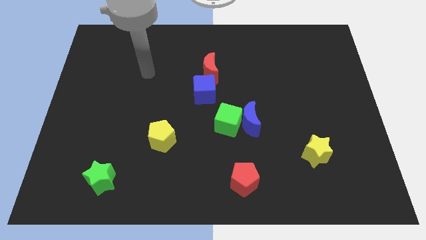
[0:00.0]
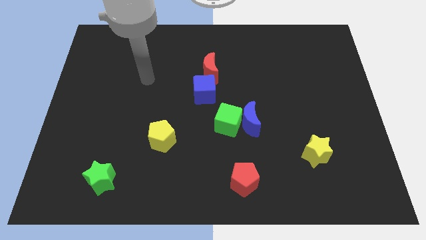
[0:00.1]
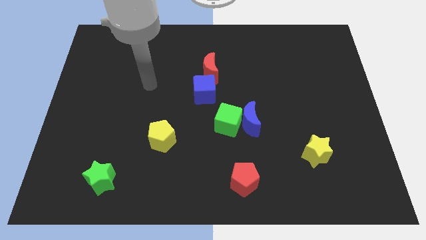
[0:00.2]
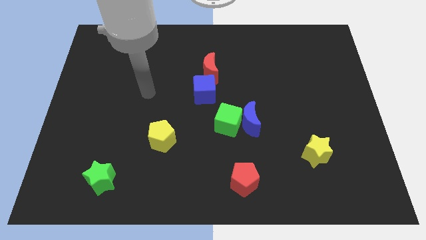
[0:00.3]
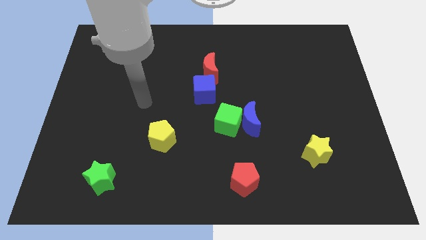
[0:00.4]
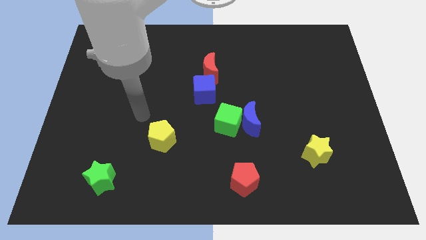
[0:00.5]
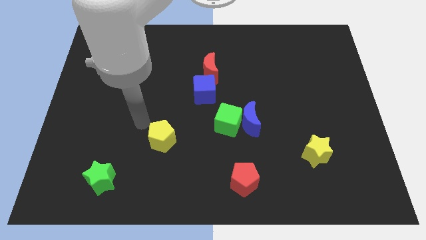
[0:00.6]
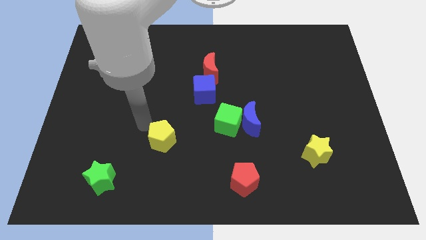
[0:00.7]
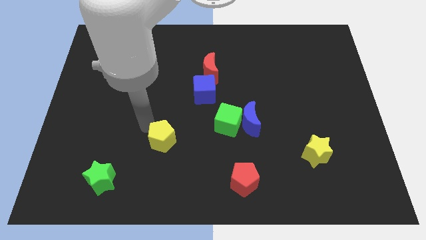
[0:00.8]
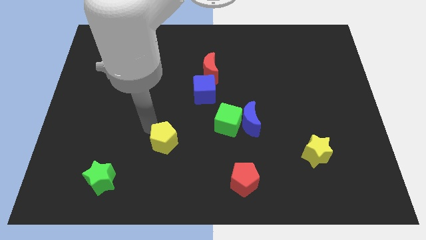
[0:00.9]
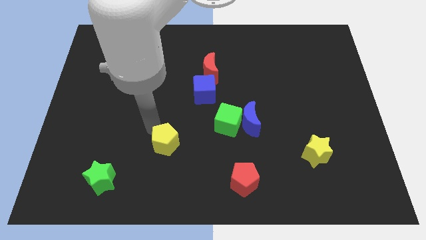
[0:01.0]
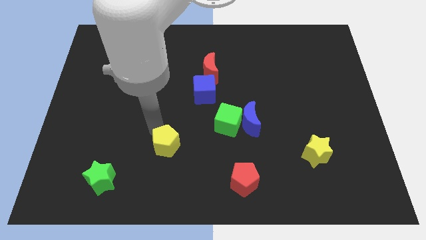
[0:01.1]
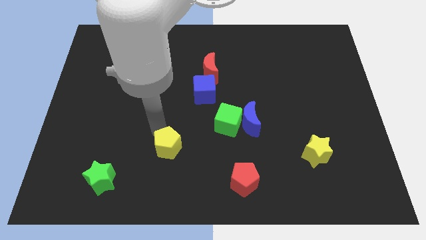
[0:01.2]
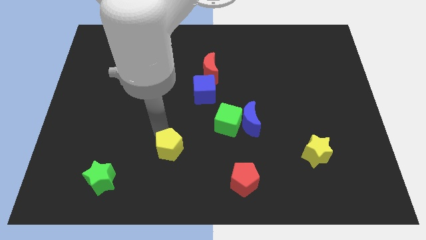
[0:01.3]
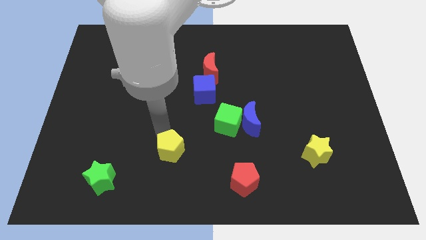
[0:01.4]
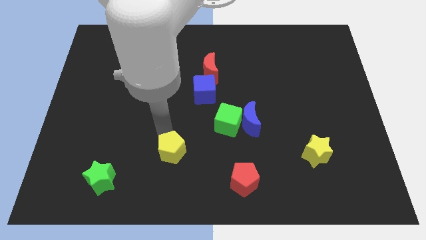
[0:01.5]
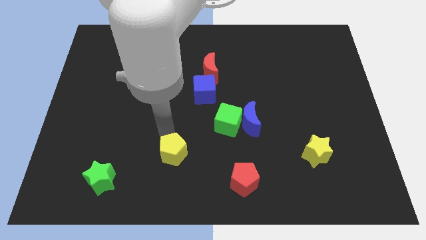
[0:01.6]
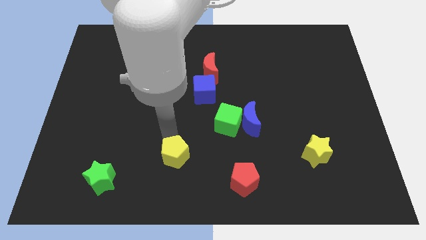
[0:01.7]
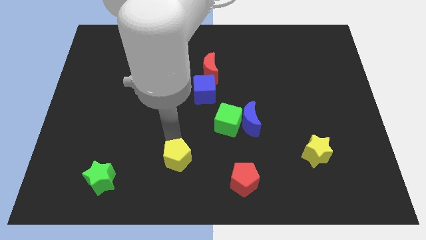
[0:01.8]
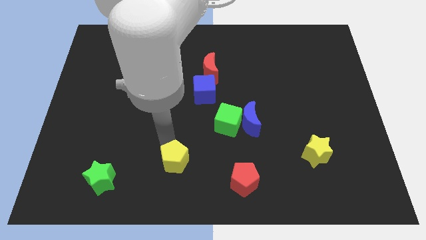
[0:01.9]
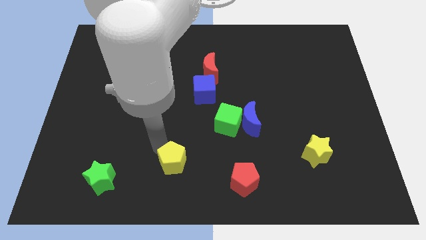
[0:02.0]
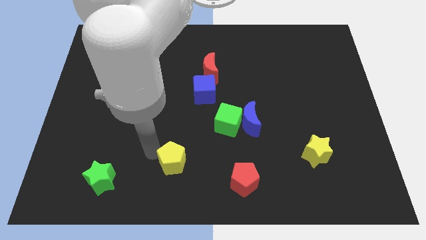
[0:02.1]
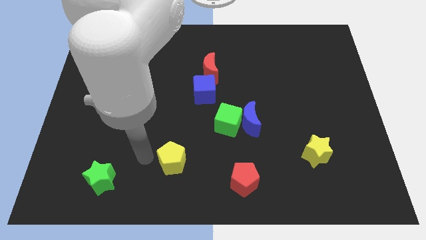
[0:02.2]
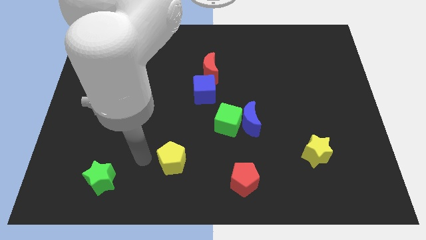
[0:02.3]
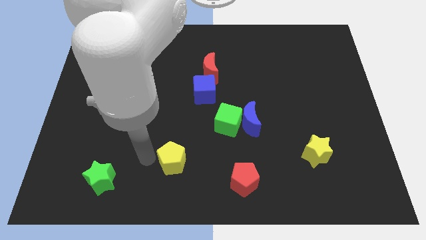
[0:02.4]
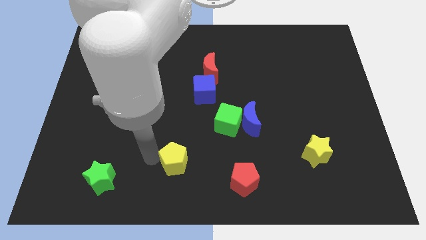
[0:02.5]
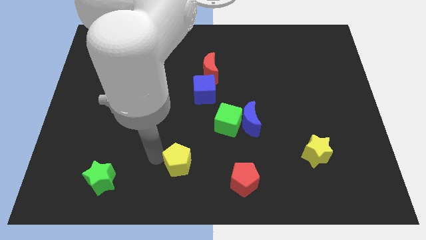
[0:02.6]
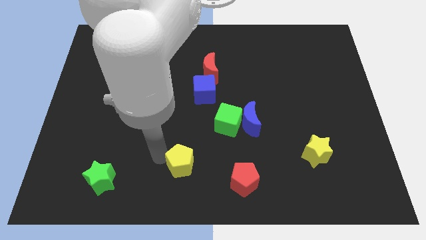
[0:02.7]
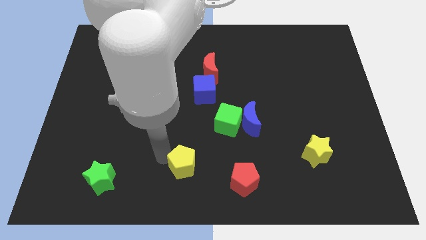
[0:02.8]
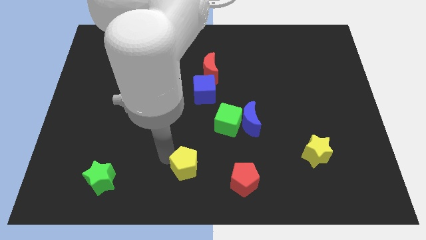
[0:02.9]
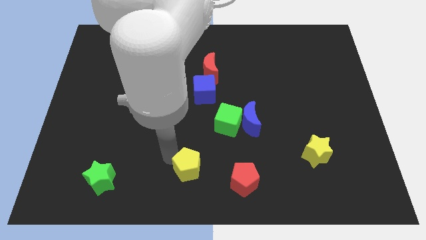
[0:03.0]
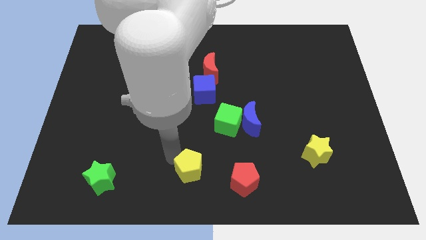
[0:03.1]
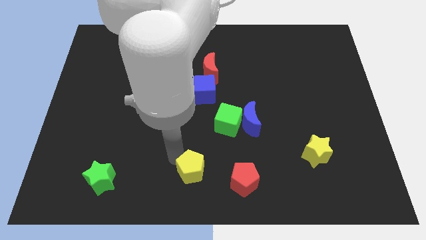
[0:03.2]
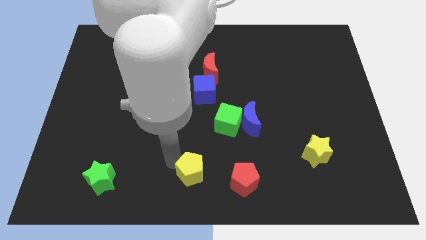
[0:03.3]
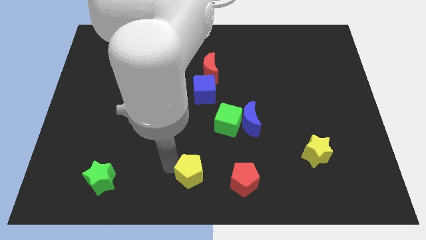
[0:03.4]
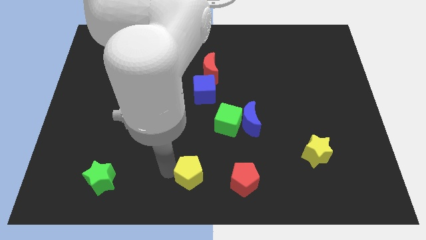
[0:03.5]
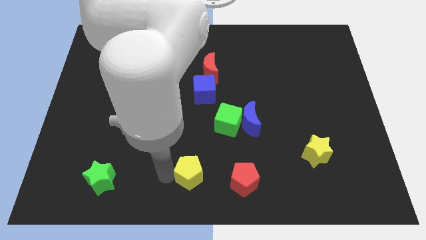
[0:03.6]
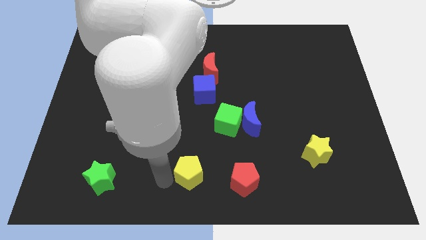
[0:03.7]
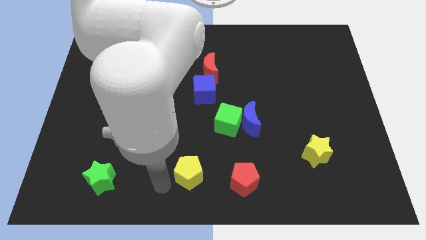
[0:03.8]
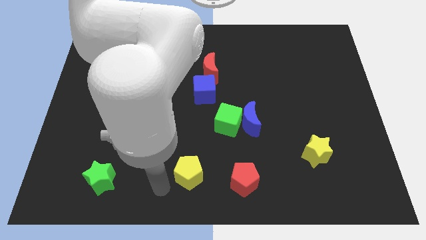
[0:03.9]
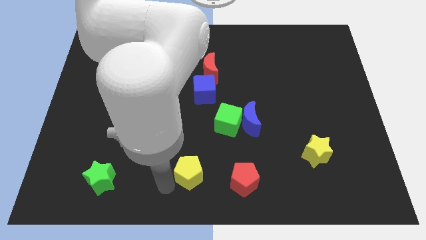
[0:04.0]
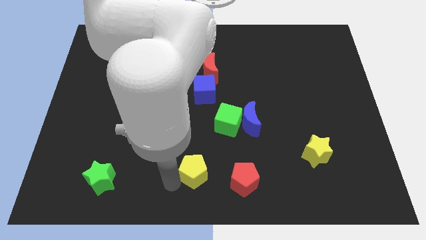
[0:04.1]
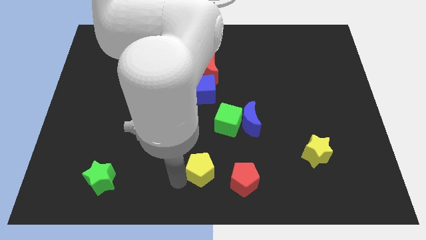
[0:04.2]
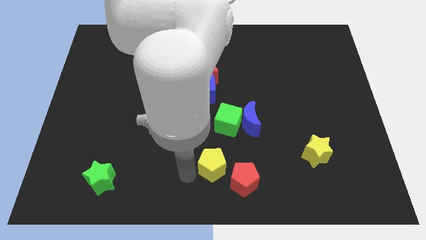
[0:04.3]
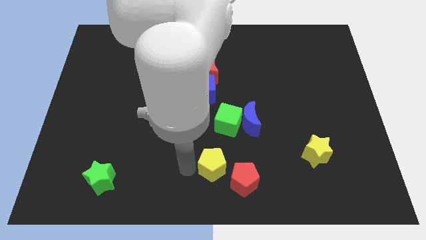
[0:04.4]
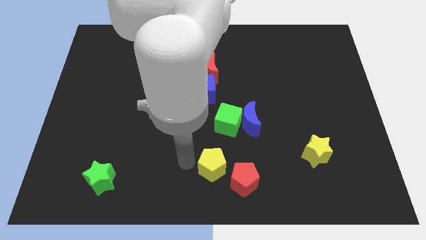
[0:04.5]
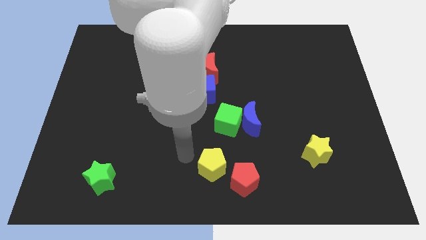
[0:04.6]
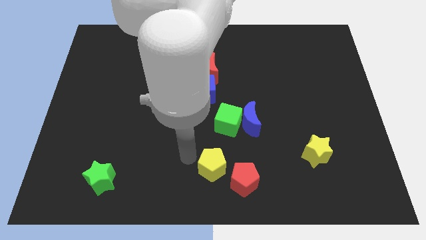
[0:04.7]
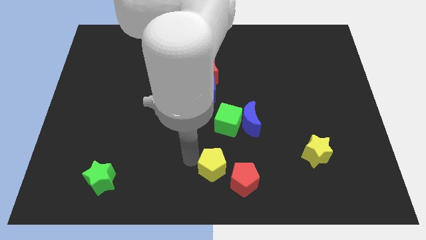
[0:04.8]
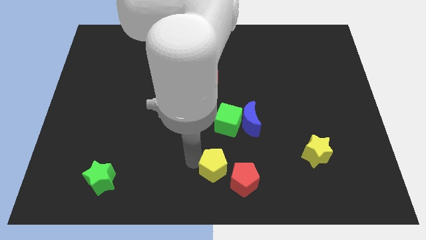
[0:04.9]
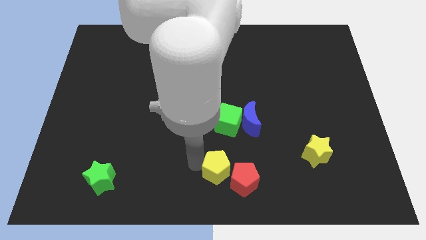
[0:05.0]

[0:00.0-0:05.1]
slide the yellow pentagon next to the red pentagon

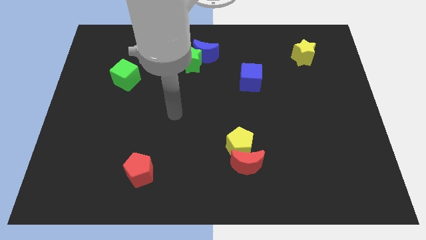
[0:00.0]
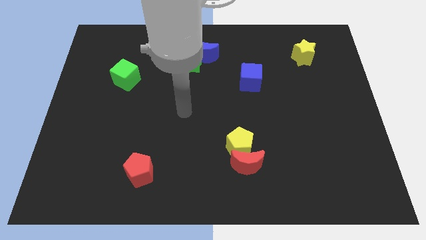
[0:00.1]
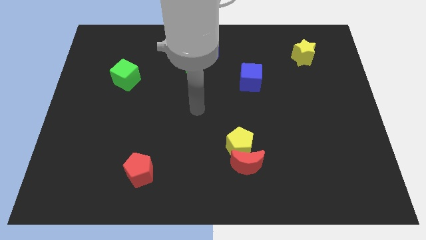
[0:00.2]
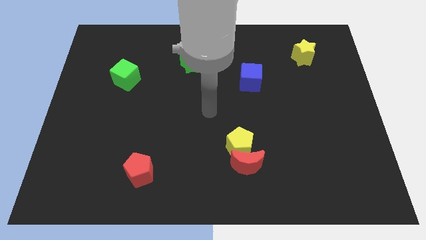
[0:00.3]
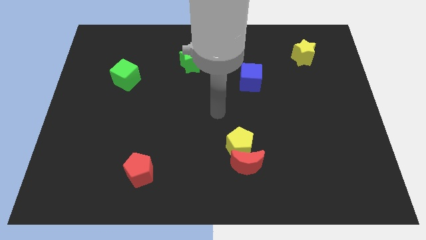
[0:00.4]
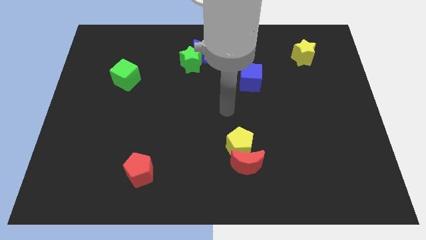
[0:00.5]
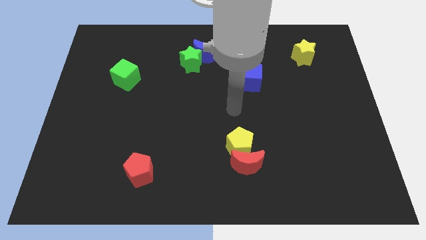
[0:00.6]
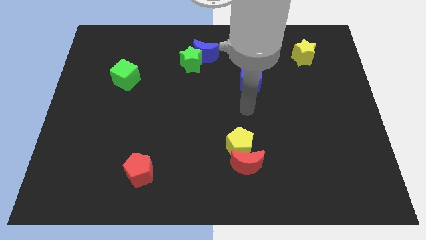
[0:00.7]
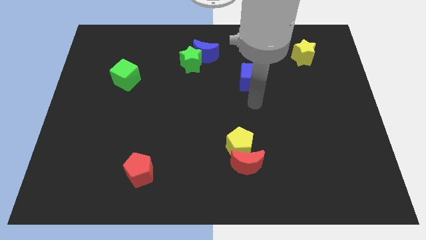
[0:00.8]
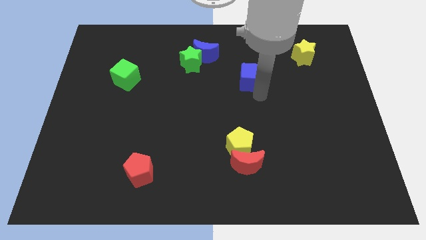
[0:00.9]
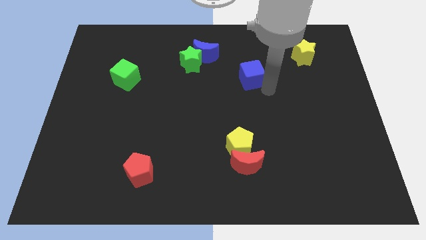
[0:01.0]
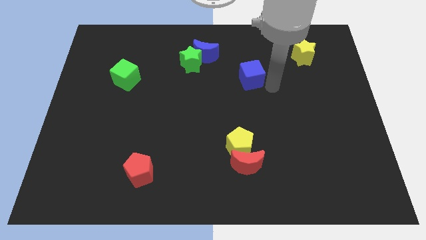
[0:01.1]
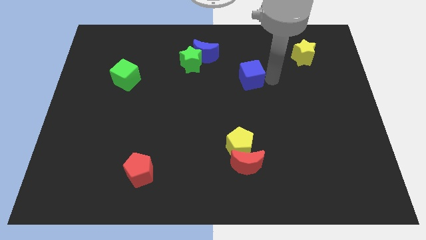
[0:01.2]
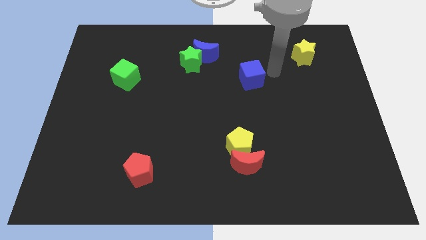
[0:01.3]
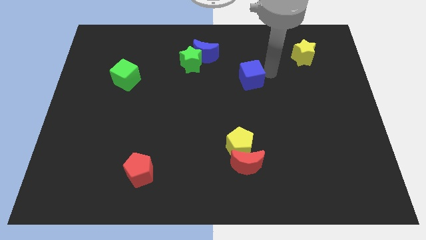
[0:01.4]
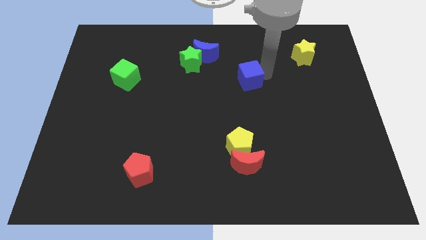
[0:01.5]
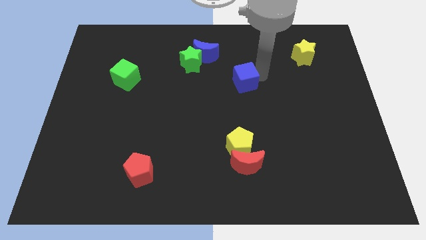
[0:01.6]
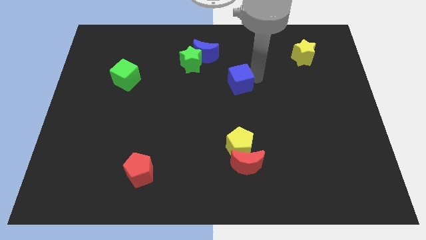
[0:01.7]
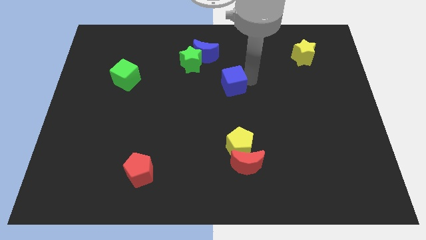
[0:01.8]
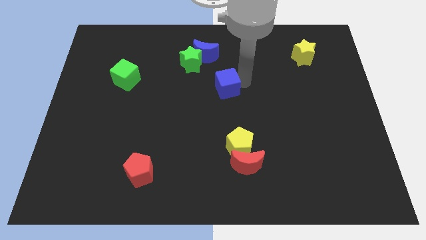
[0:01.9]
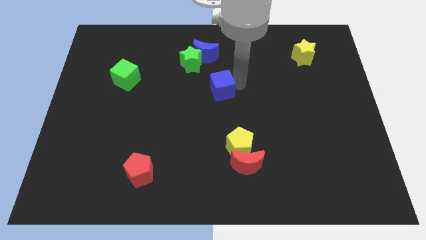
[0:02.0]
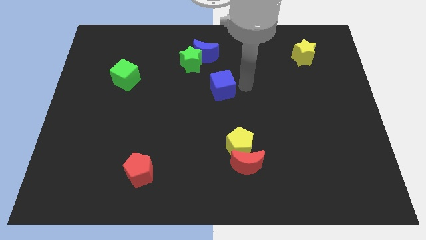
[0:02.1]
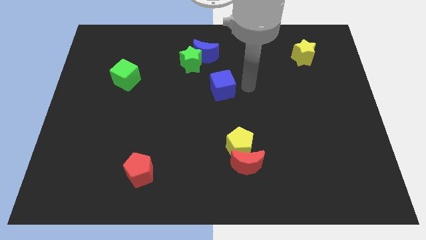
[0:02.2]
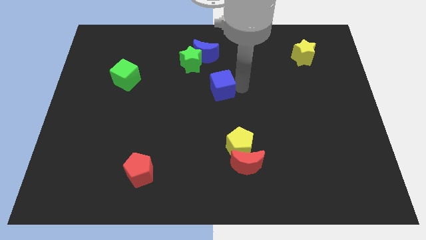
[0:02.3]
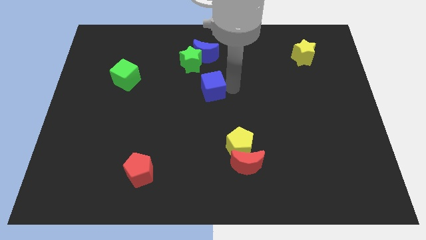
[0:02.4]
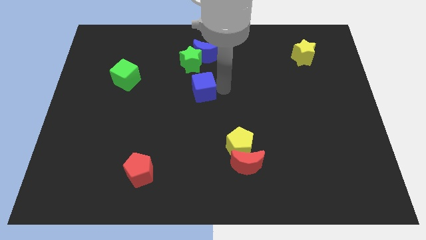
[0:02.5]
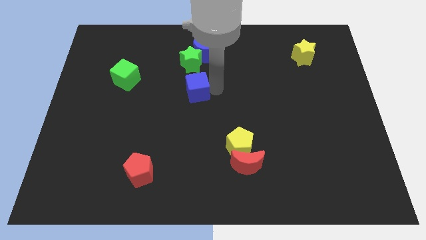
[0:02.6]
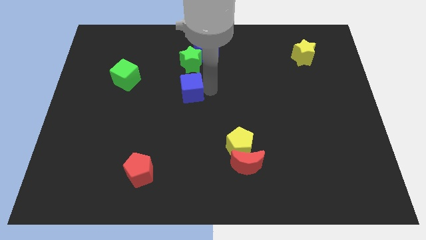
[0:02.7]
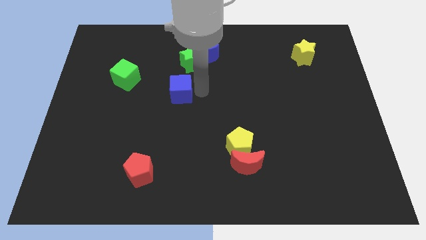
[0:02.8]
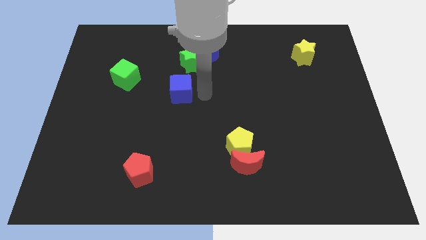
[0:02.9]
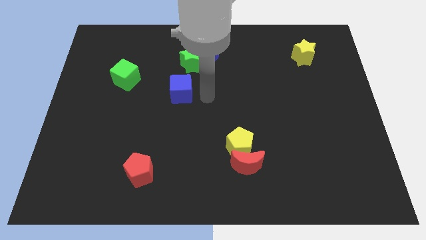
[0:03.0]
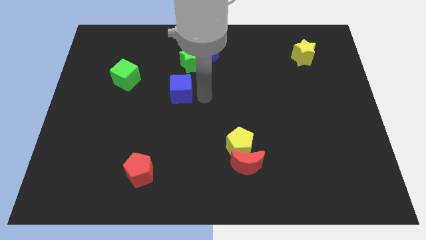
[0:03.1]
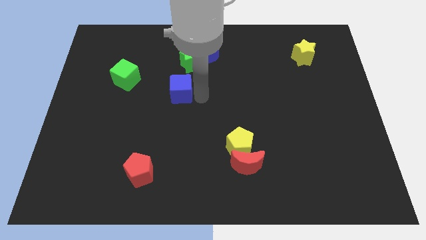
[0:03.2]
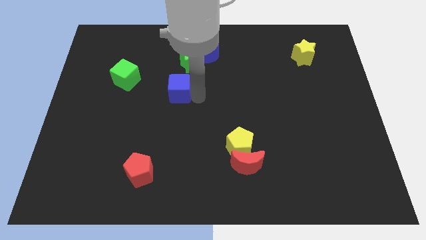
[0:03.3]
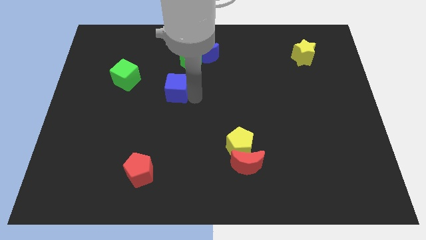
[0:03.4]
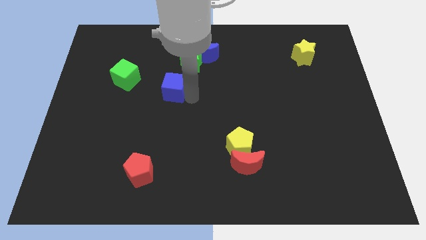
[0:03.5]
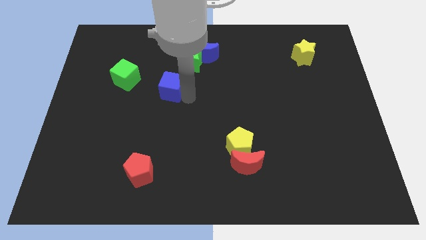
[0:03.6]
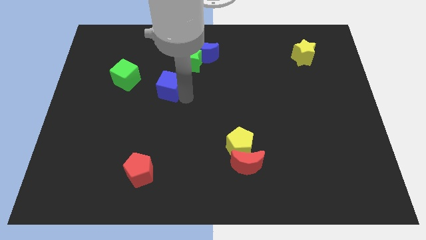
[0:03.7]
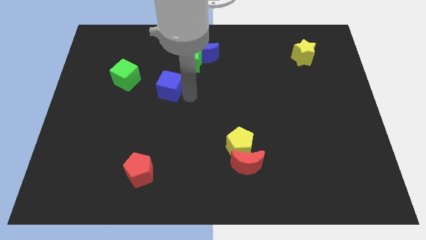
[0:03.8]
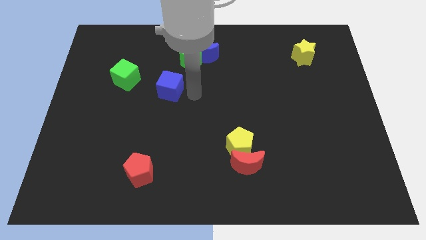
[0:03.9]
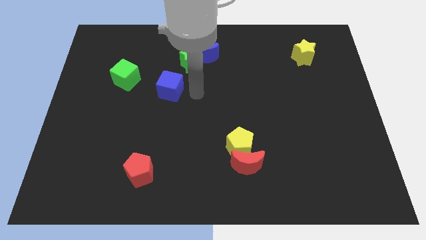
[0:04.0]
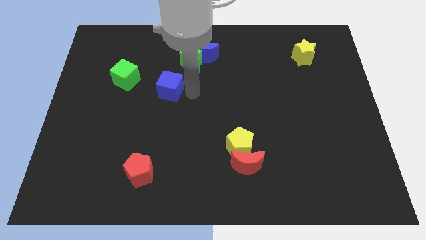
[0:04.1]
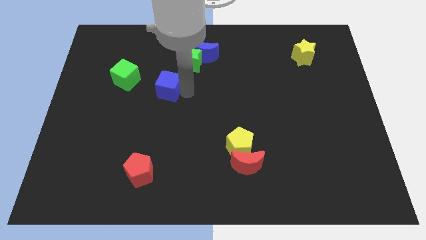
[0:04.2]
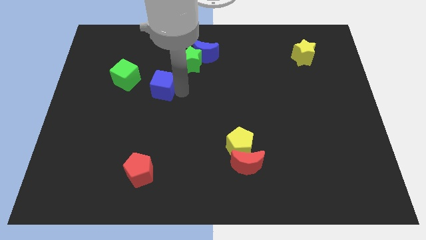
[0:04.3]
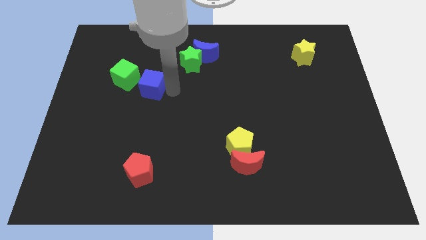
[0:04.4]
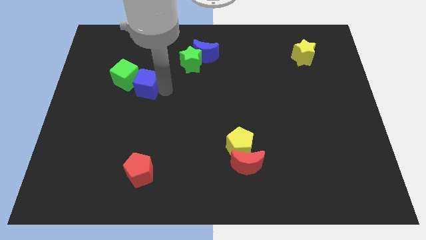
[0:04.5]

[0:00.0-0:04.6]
put the blue cube towards the green cube
